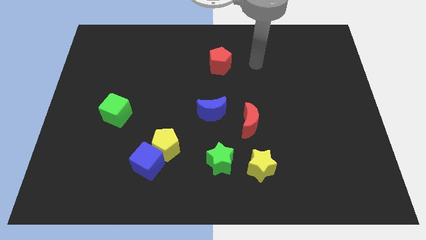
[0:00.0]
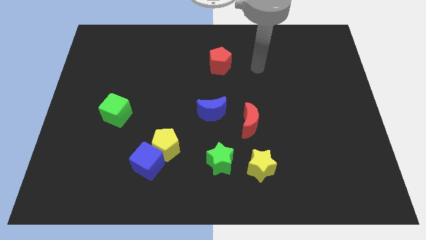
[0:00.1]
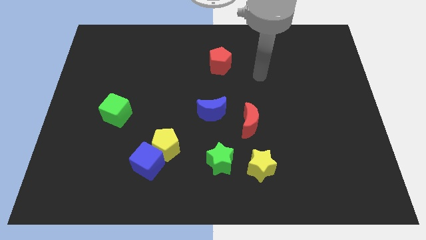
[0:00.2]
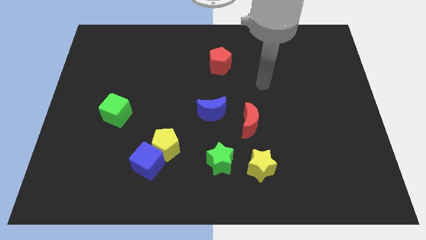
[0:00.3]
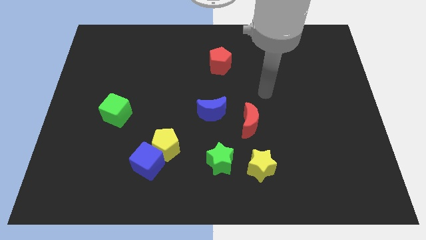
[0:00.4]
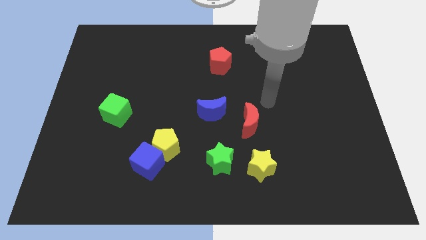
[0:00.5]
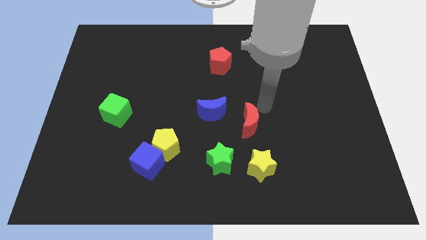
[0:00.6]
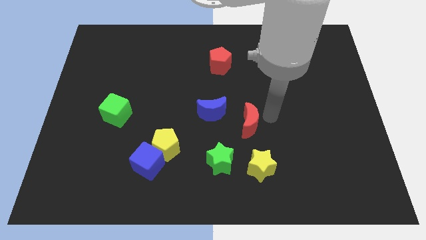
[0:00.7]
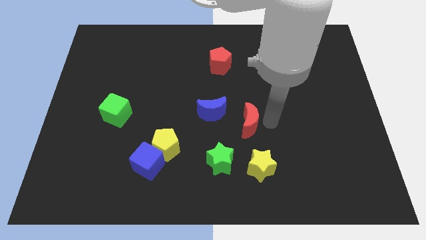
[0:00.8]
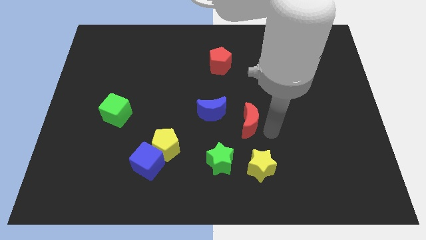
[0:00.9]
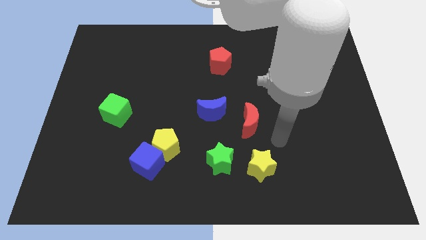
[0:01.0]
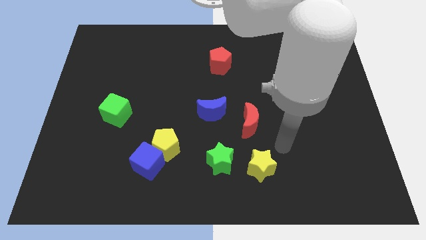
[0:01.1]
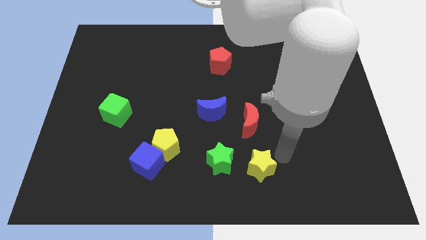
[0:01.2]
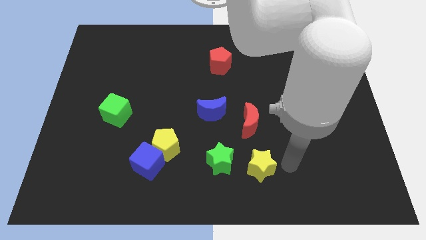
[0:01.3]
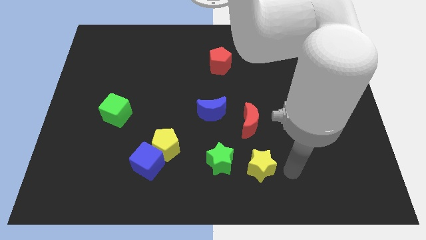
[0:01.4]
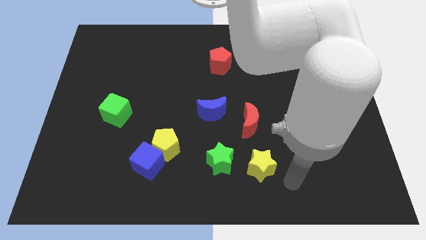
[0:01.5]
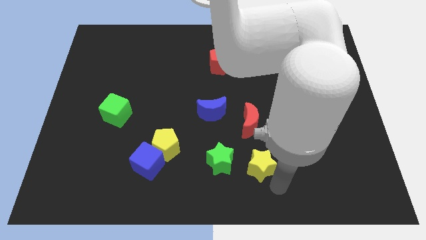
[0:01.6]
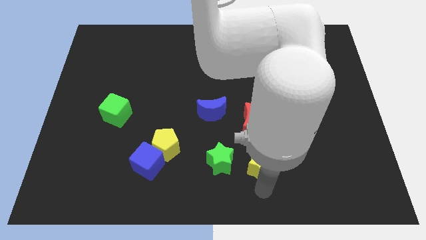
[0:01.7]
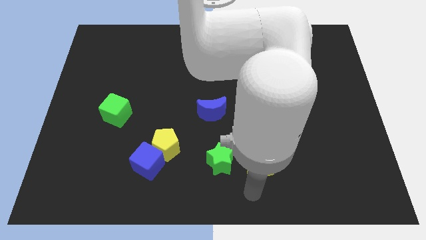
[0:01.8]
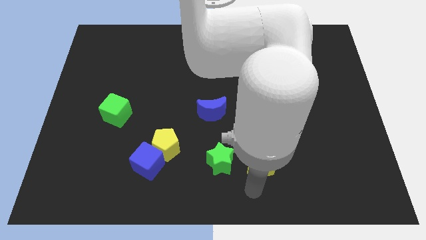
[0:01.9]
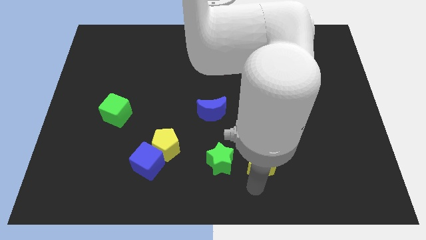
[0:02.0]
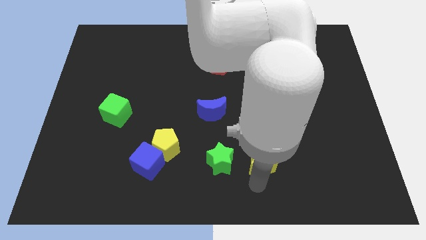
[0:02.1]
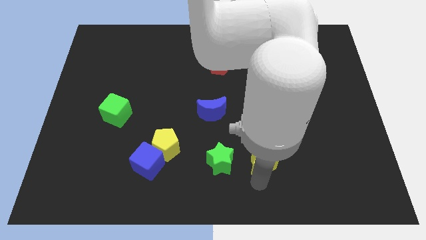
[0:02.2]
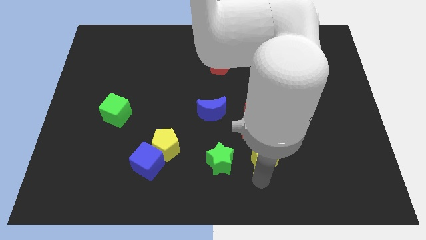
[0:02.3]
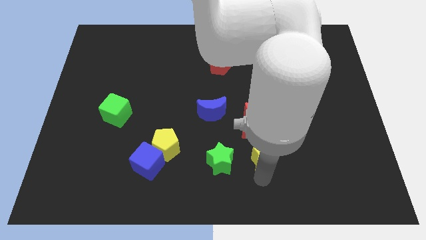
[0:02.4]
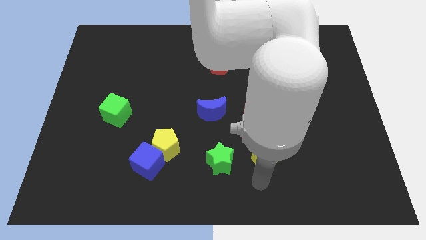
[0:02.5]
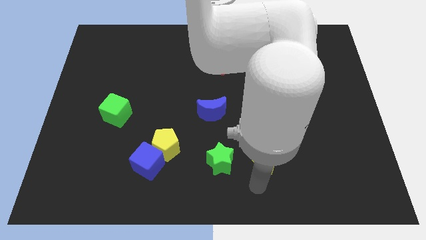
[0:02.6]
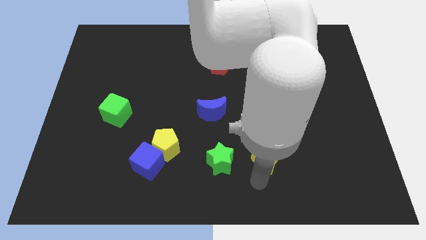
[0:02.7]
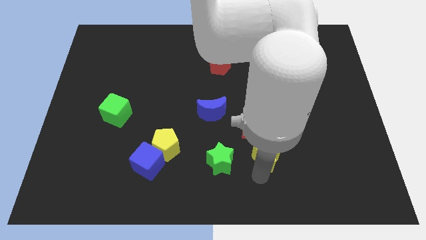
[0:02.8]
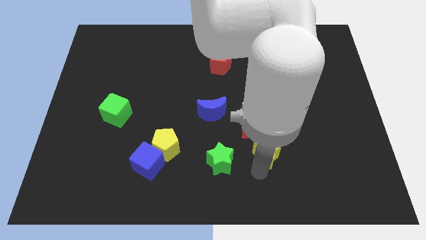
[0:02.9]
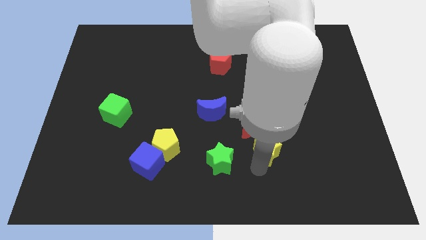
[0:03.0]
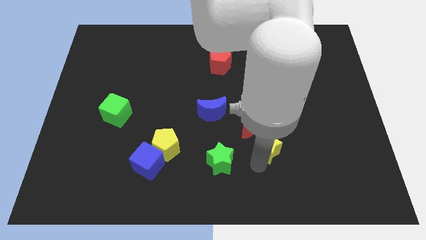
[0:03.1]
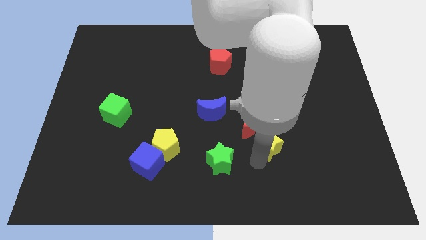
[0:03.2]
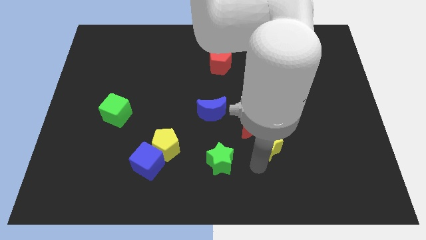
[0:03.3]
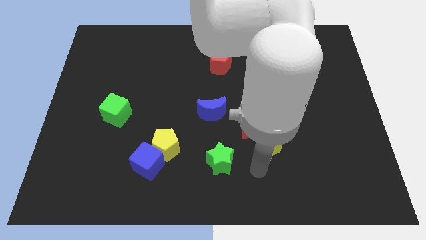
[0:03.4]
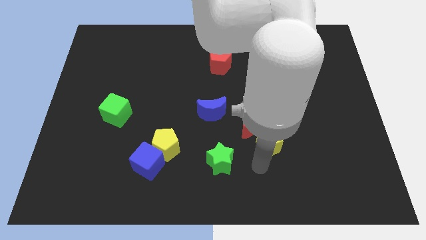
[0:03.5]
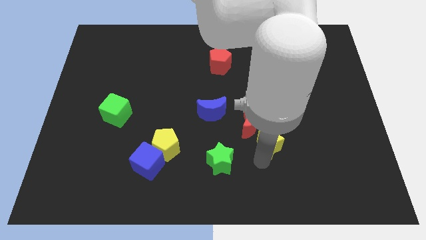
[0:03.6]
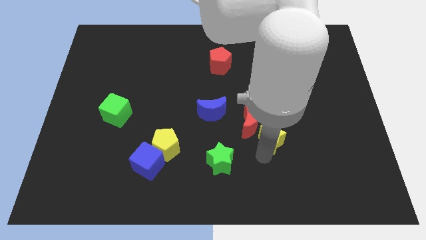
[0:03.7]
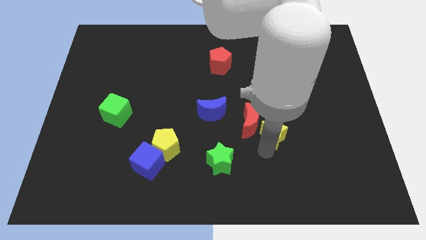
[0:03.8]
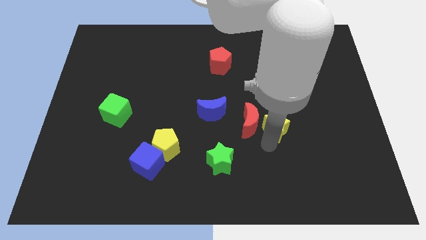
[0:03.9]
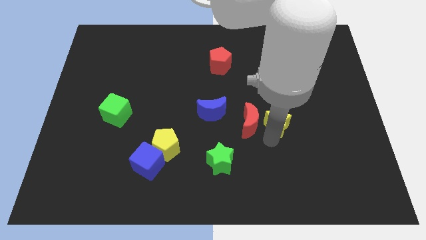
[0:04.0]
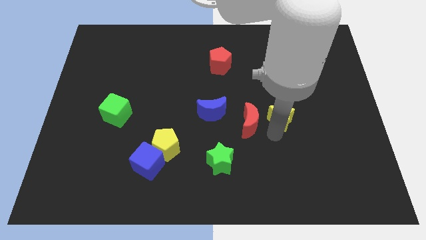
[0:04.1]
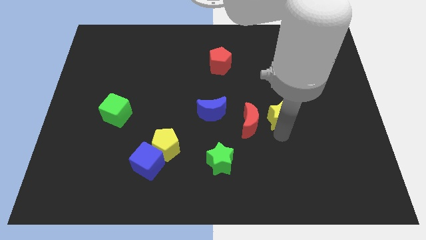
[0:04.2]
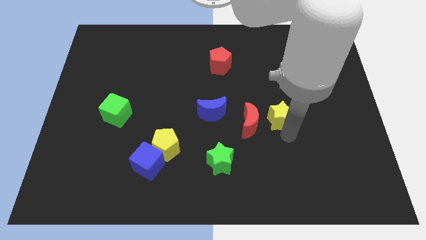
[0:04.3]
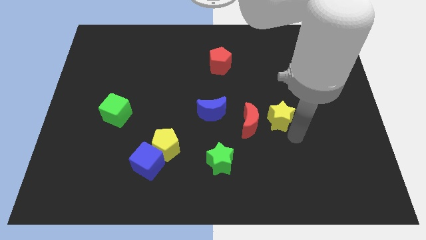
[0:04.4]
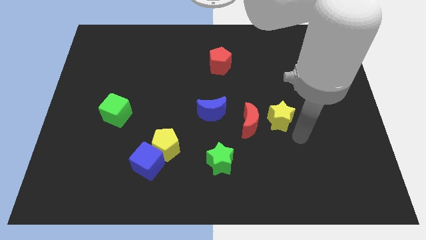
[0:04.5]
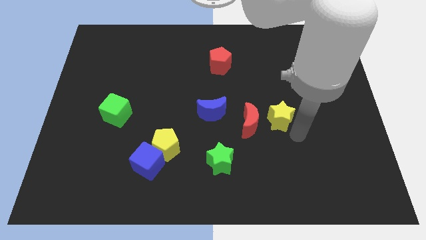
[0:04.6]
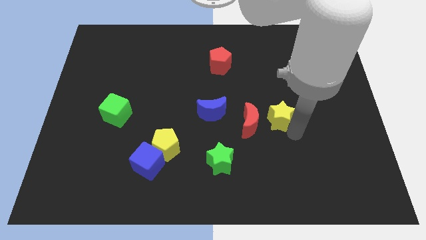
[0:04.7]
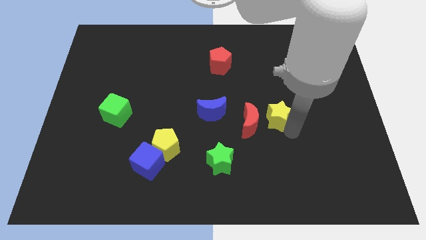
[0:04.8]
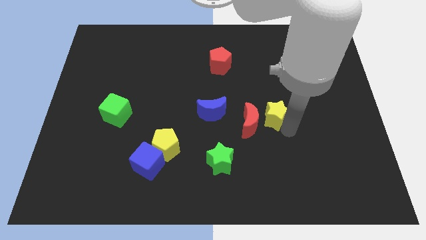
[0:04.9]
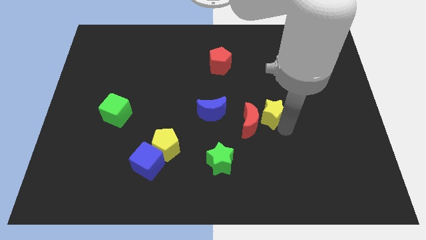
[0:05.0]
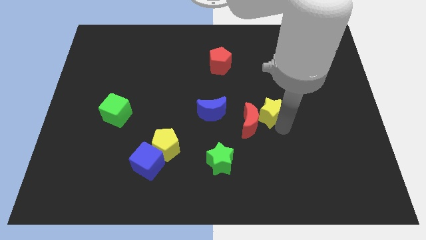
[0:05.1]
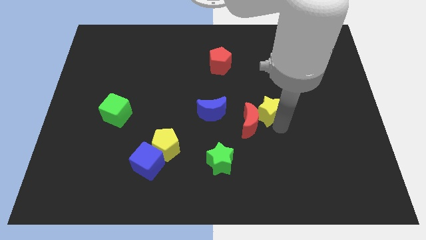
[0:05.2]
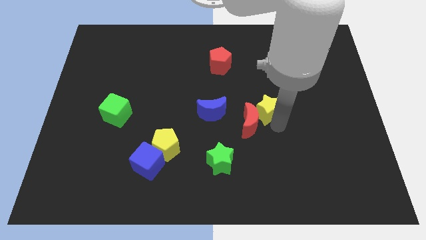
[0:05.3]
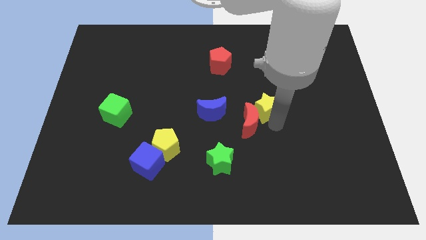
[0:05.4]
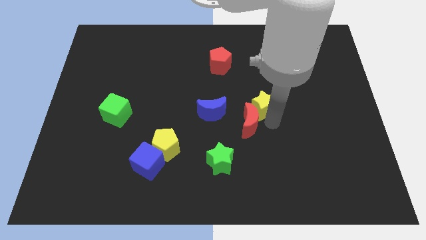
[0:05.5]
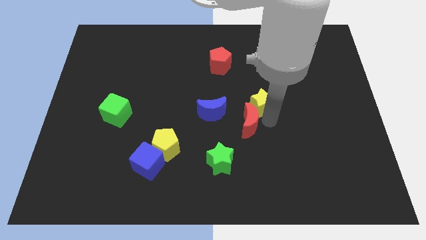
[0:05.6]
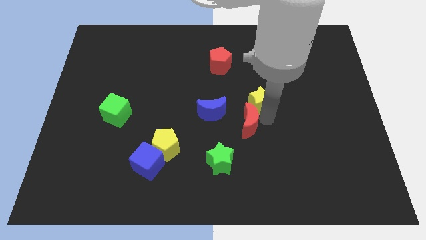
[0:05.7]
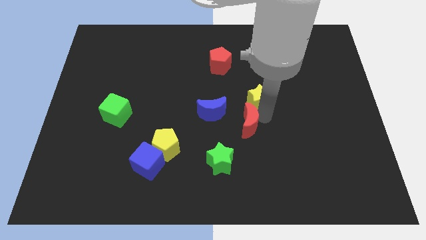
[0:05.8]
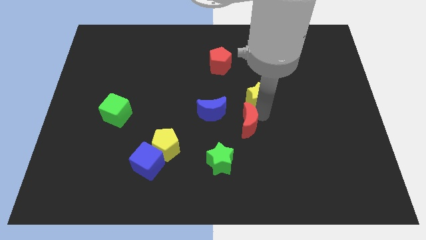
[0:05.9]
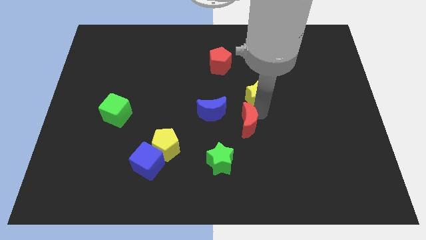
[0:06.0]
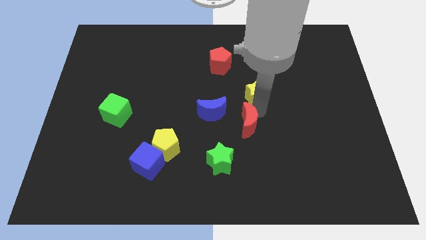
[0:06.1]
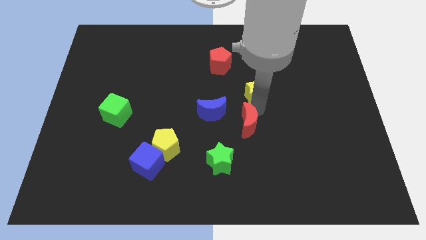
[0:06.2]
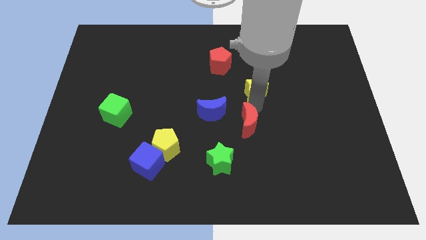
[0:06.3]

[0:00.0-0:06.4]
move the yellow star up

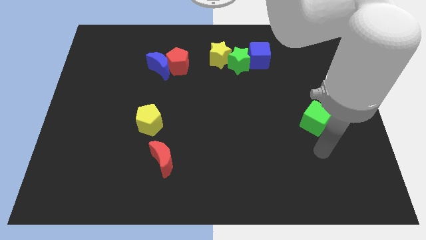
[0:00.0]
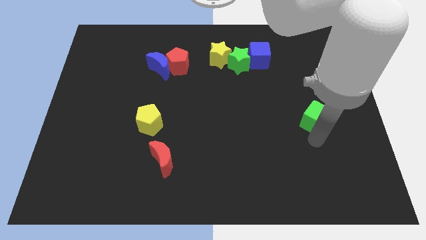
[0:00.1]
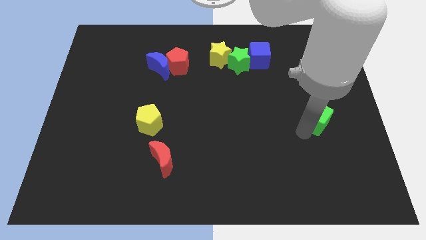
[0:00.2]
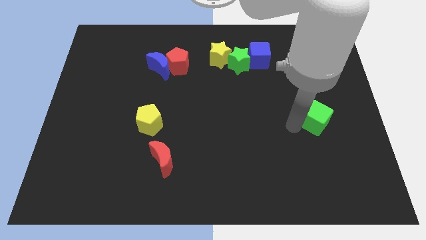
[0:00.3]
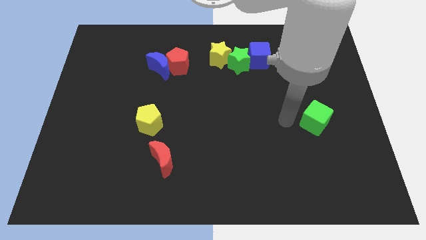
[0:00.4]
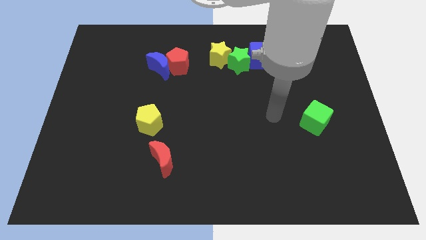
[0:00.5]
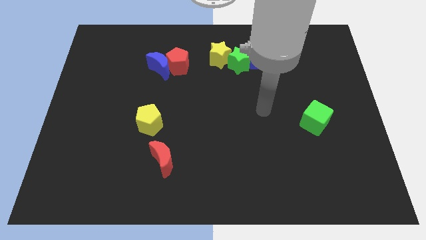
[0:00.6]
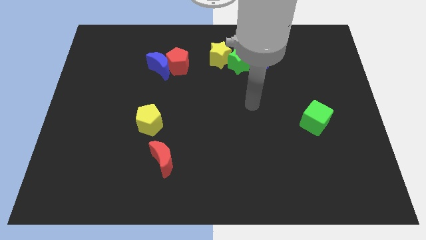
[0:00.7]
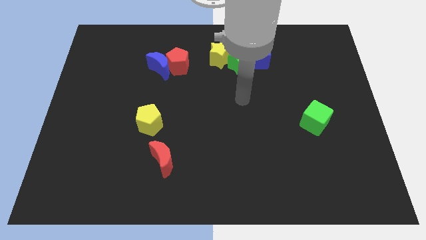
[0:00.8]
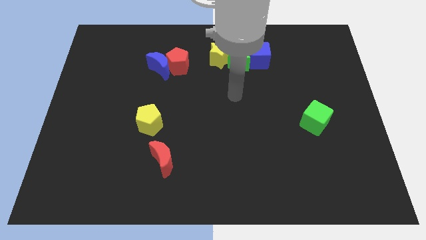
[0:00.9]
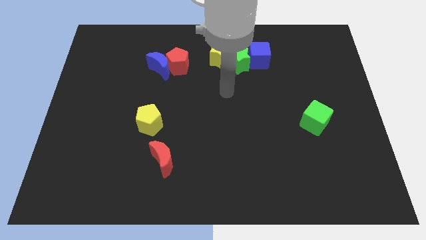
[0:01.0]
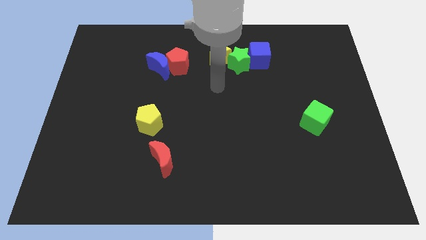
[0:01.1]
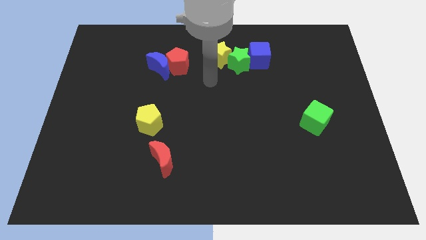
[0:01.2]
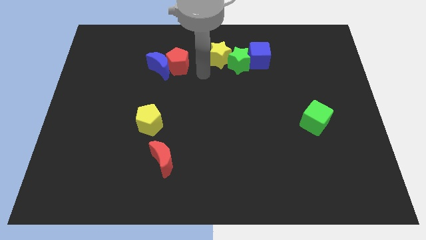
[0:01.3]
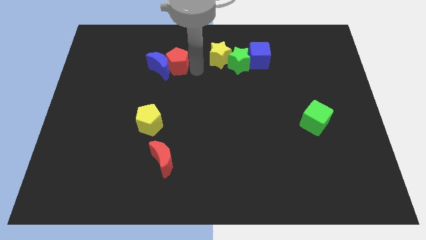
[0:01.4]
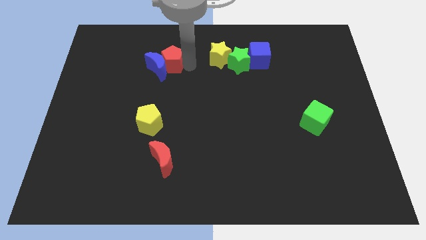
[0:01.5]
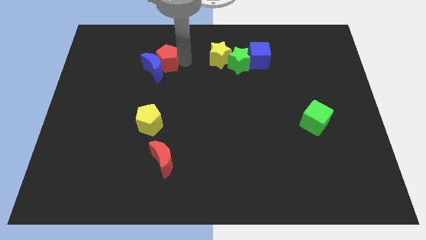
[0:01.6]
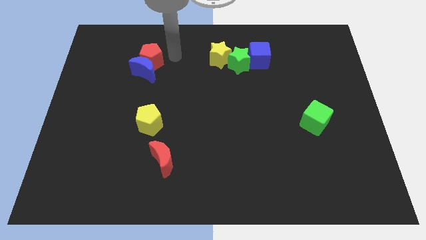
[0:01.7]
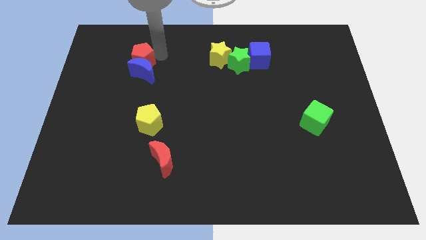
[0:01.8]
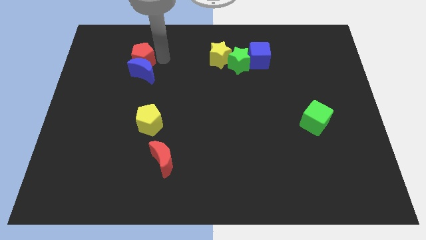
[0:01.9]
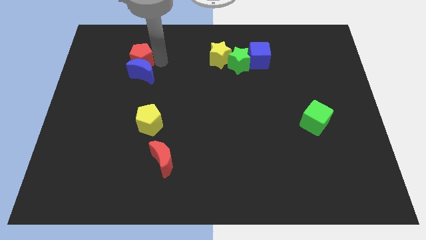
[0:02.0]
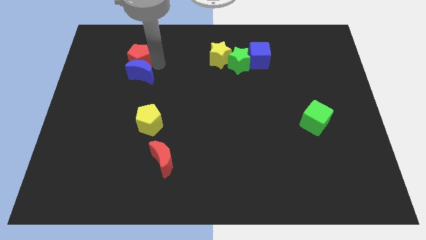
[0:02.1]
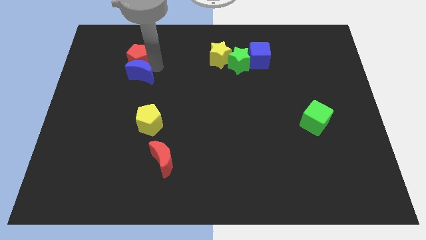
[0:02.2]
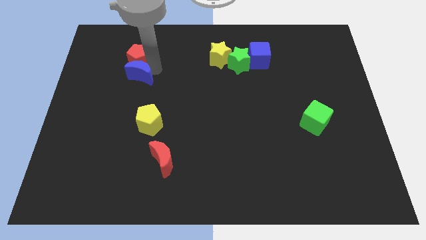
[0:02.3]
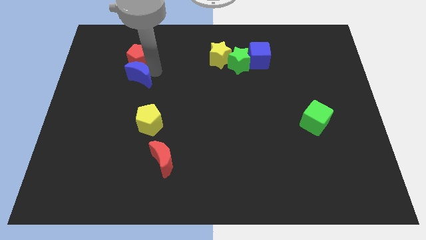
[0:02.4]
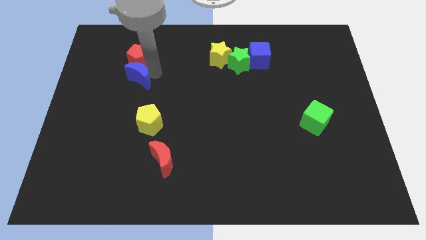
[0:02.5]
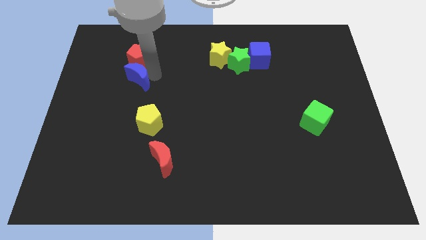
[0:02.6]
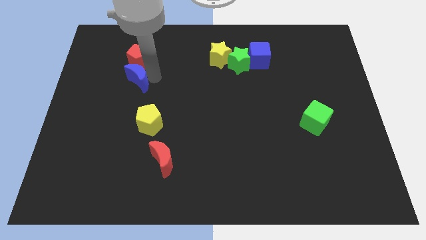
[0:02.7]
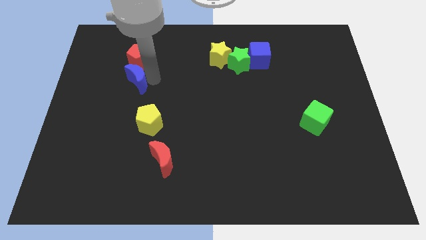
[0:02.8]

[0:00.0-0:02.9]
move the blue moon diagonally downwards and left a little bit
